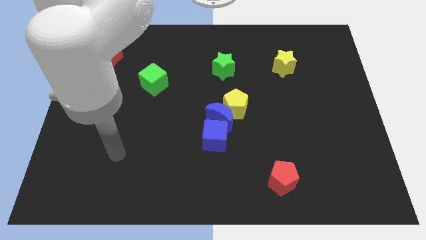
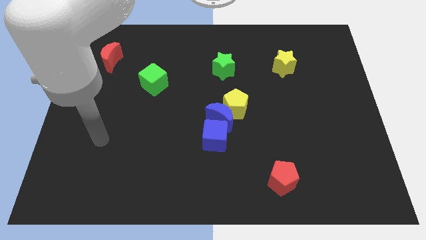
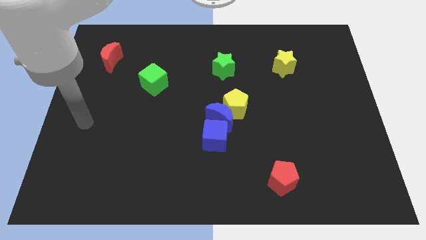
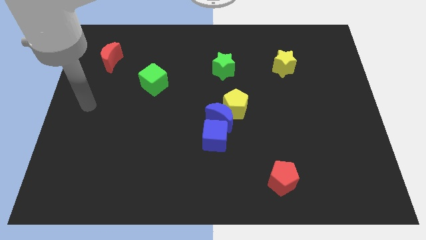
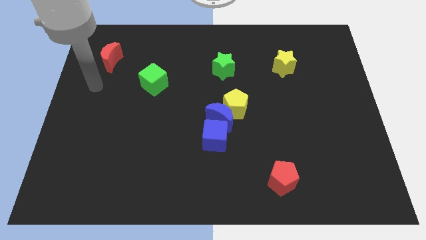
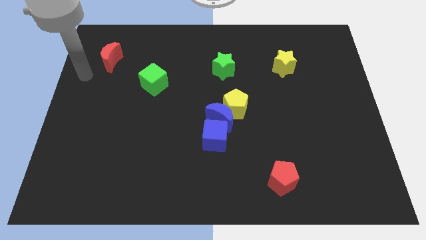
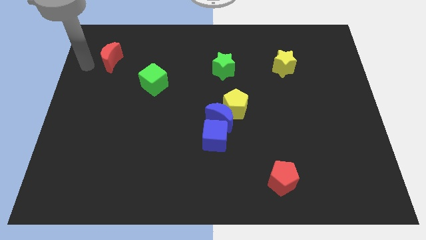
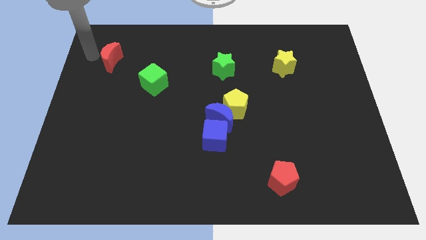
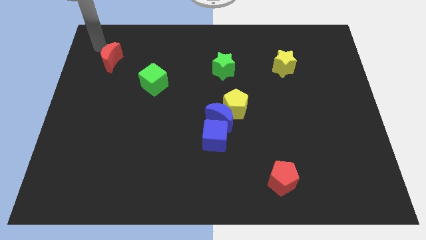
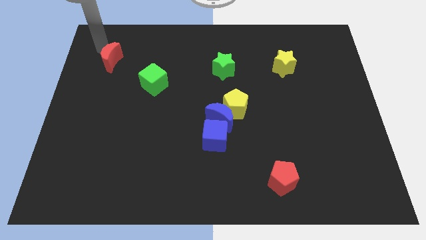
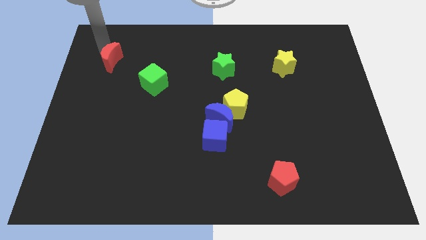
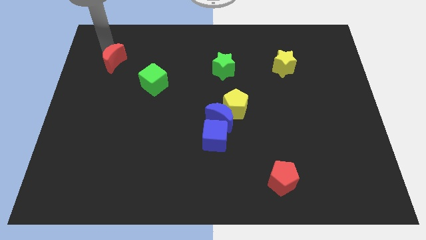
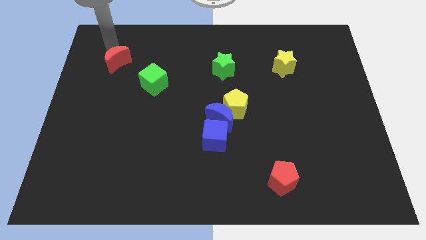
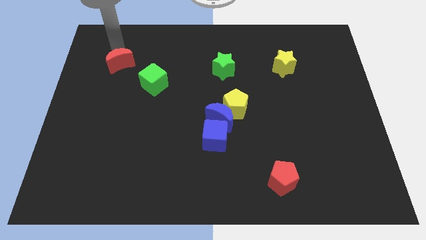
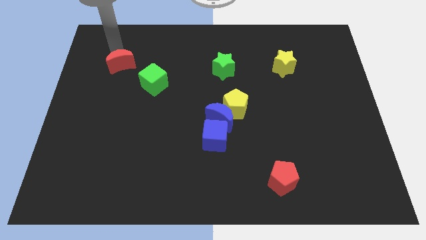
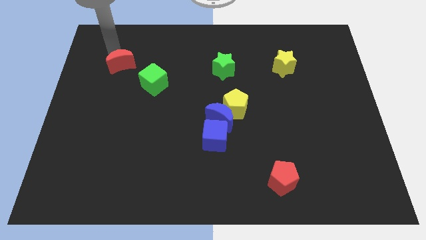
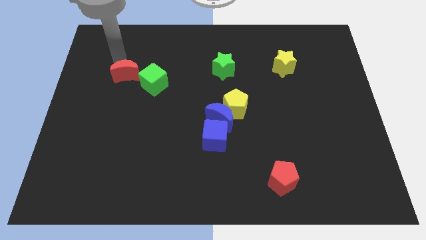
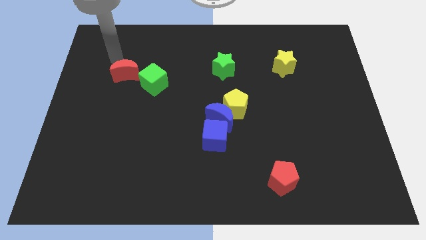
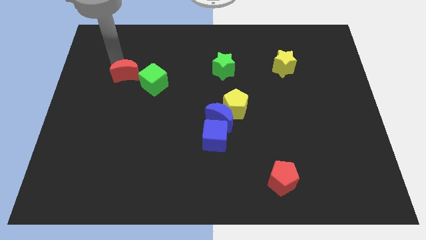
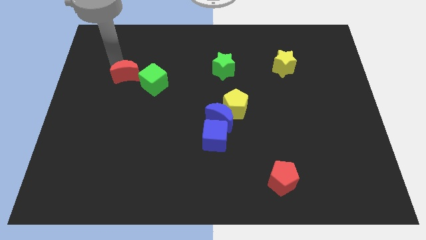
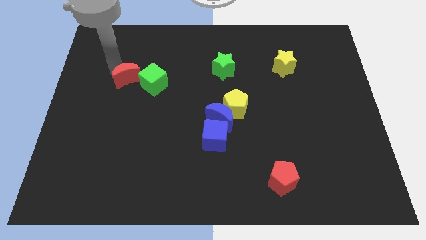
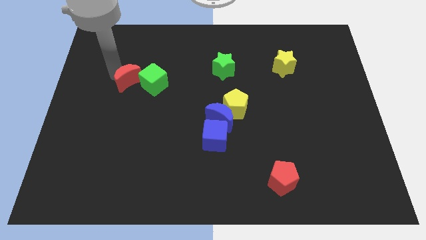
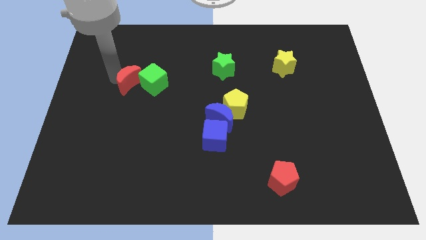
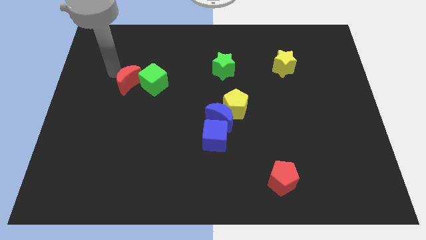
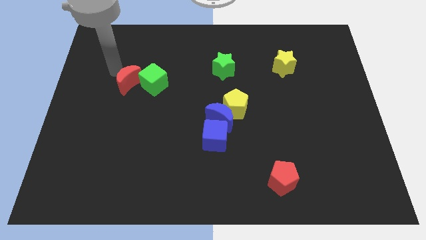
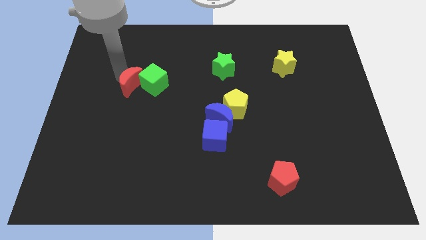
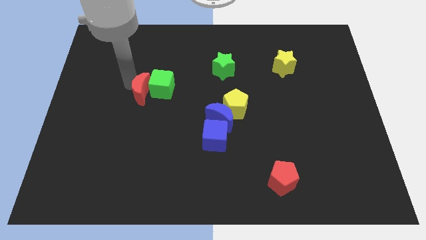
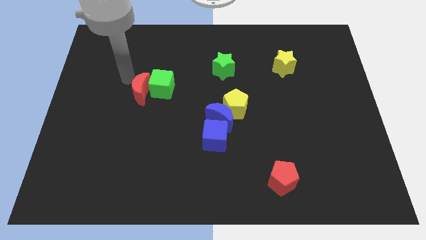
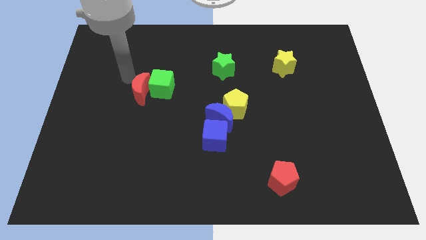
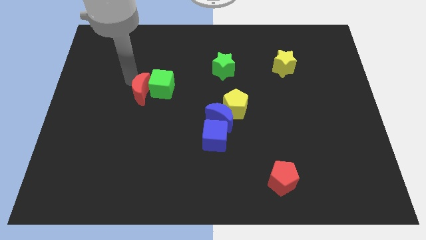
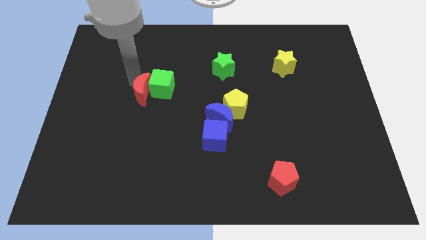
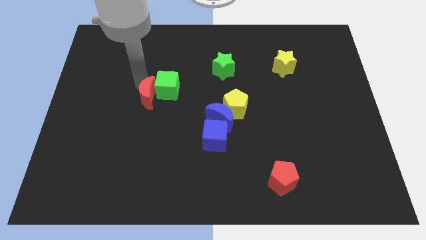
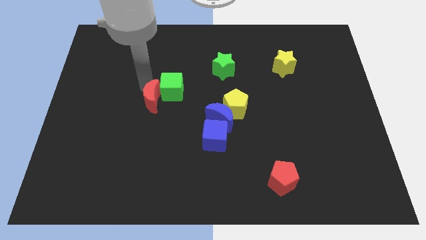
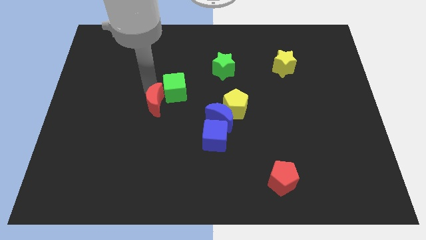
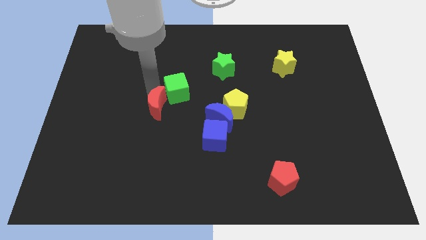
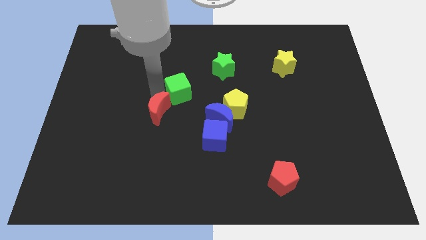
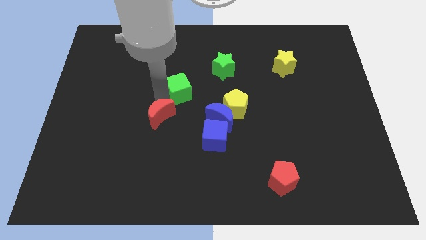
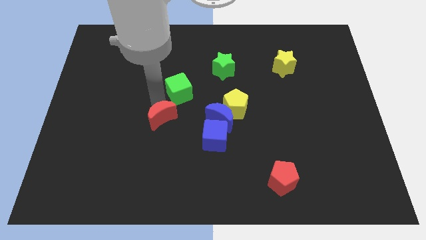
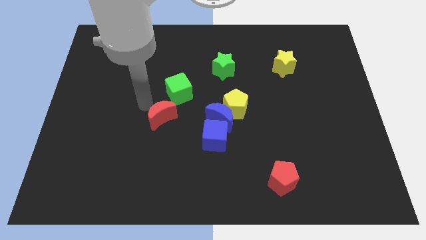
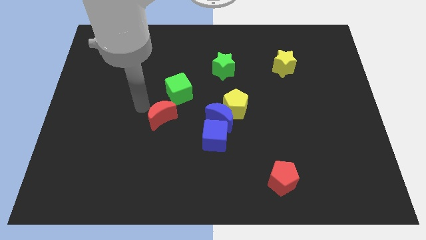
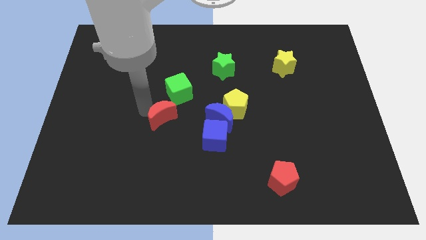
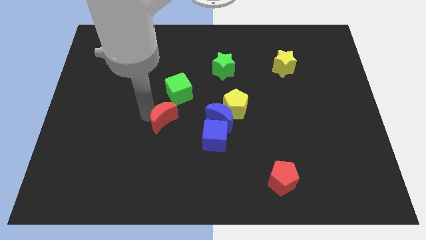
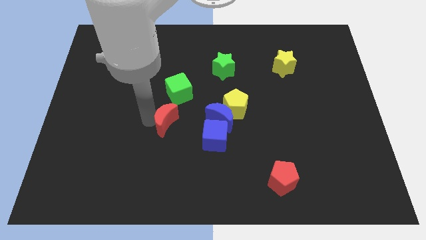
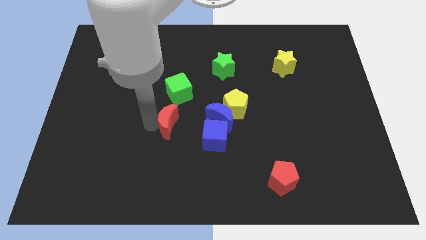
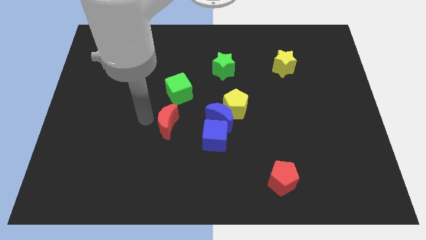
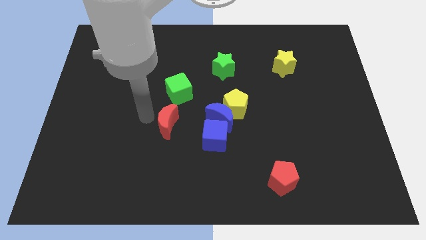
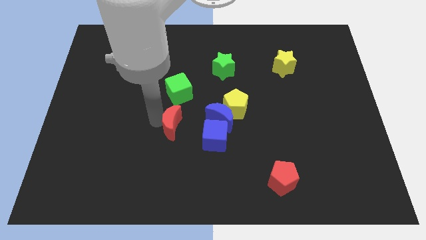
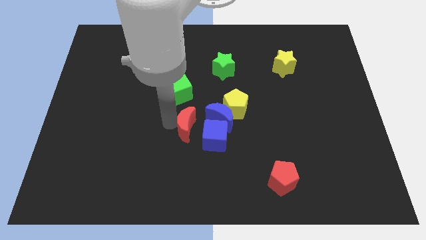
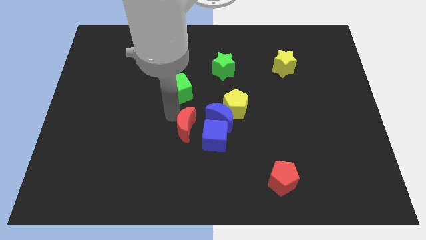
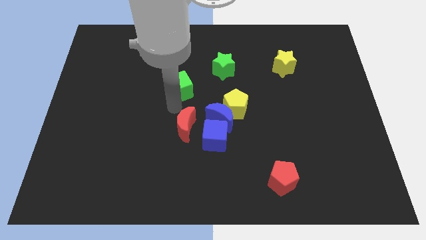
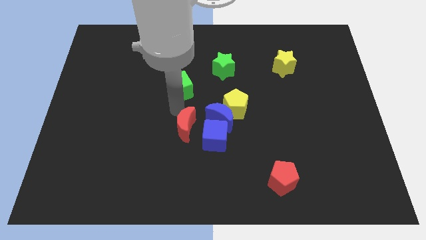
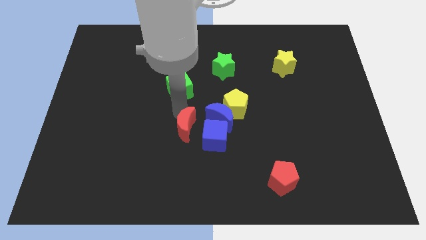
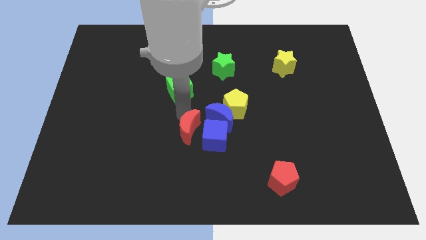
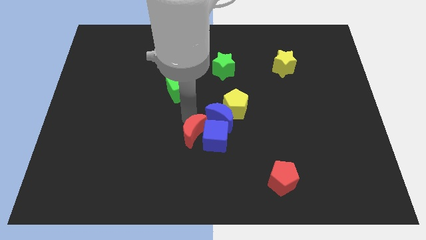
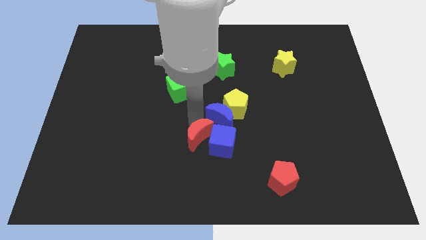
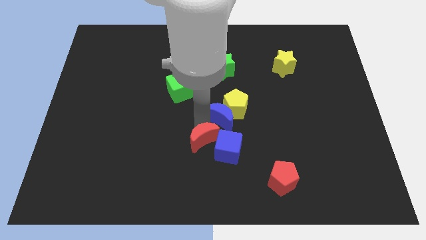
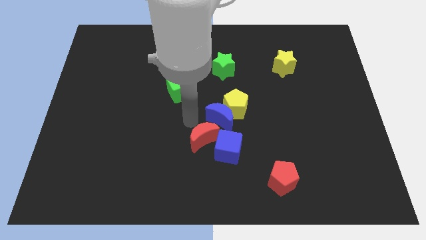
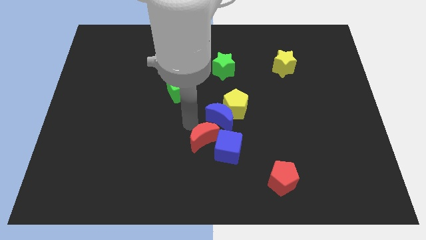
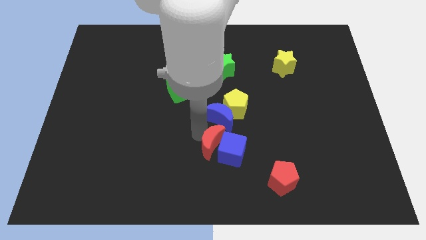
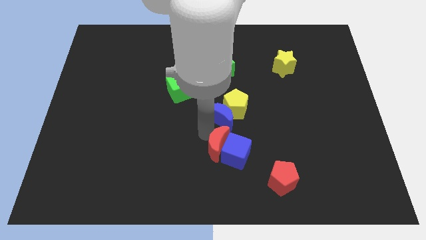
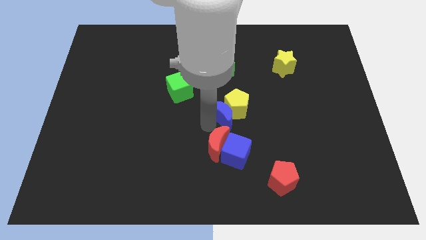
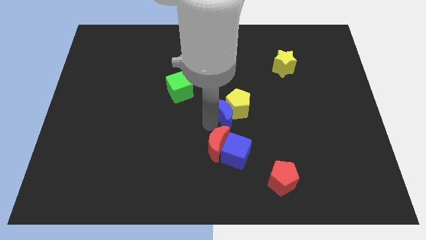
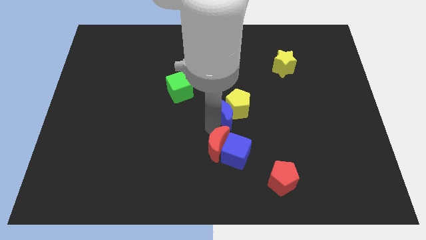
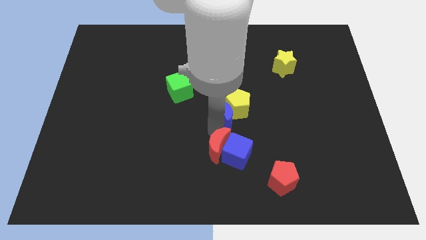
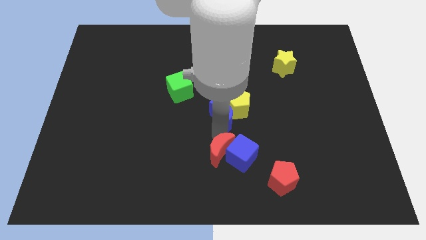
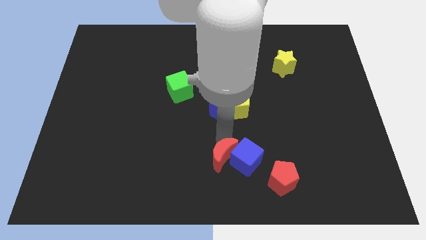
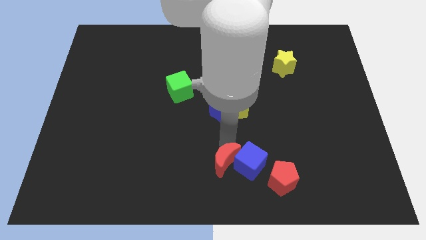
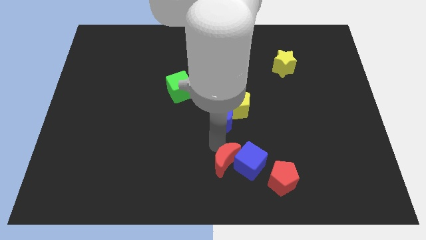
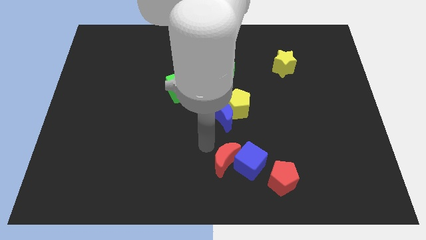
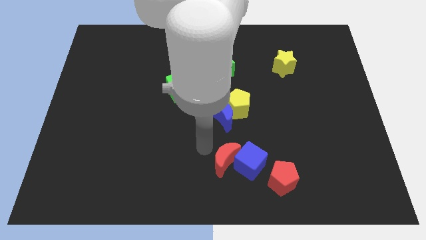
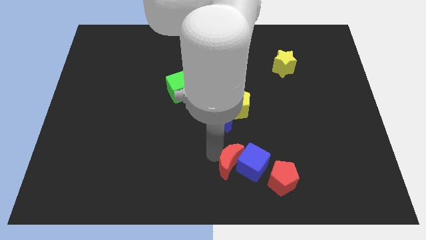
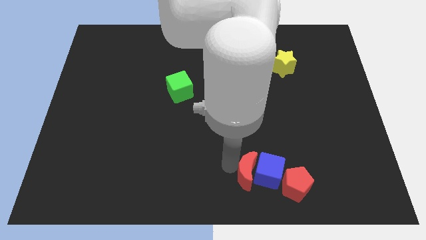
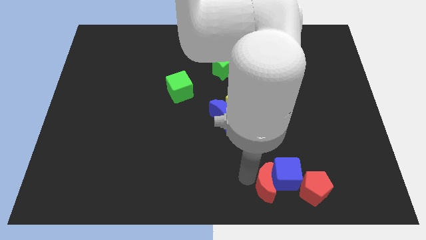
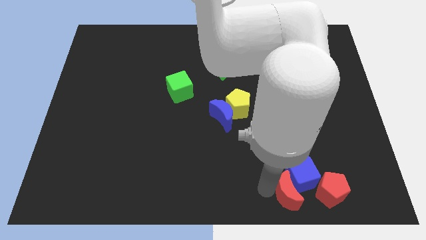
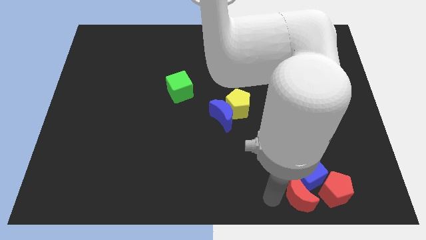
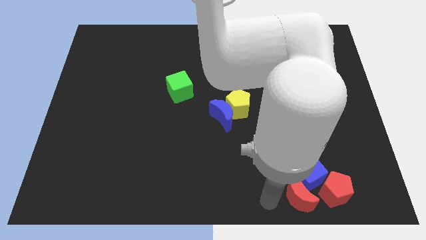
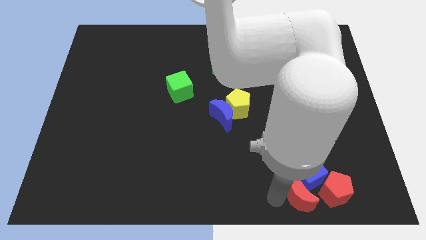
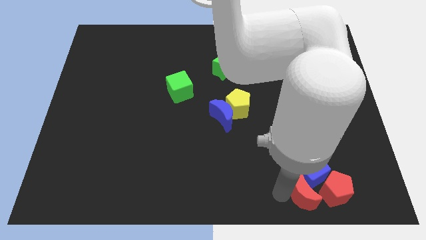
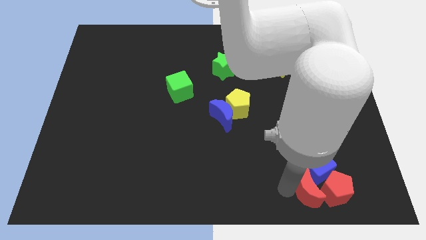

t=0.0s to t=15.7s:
move the red moon to the red pentagon
